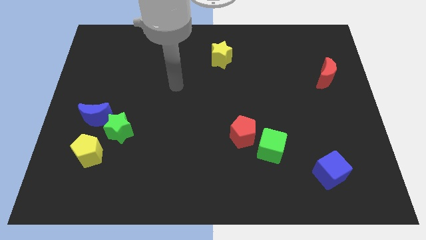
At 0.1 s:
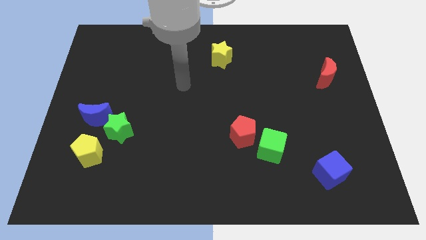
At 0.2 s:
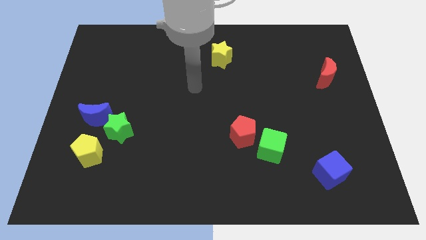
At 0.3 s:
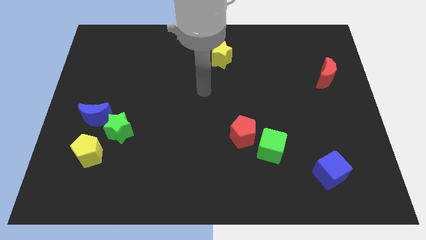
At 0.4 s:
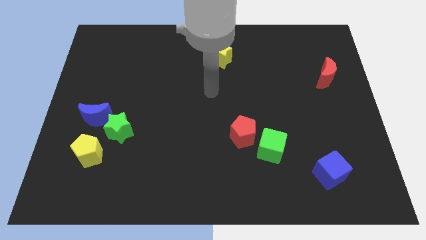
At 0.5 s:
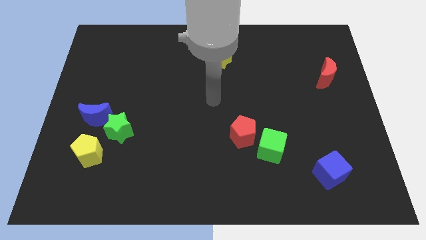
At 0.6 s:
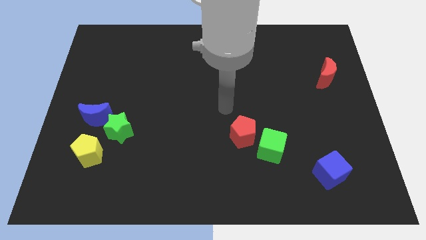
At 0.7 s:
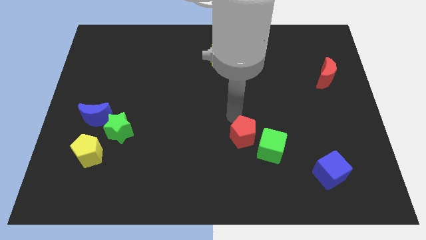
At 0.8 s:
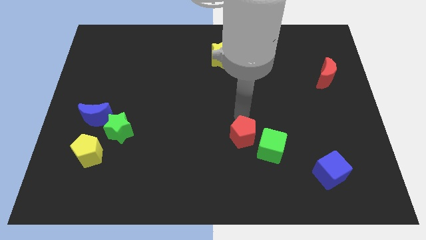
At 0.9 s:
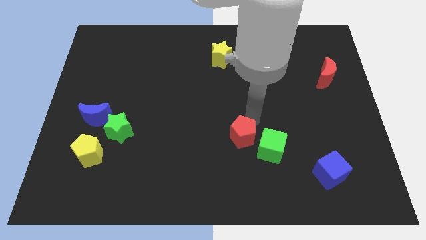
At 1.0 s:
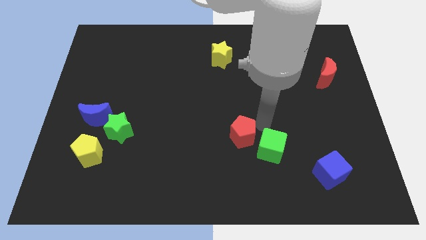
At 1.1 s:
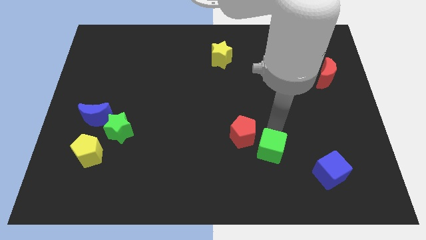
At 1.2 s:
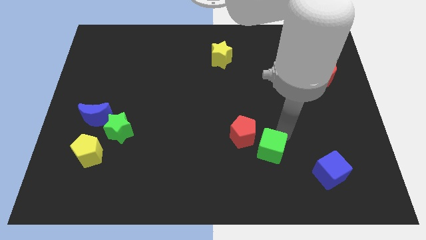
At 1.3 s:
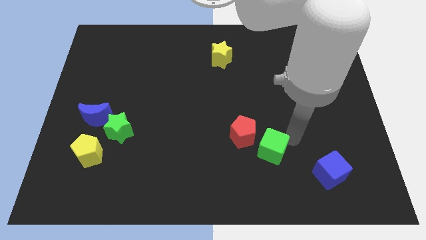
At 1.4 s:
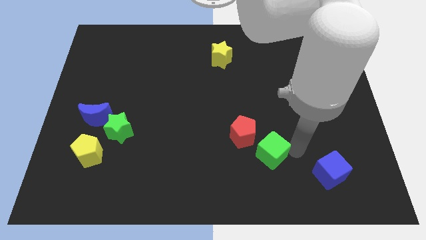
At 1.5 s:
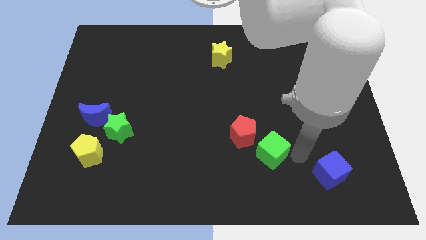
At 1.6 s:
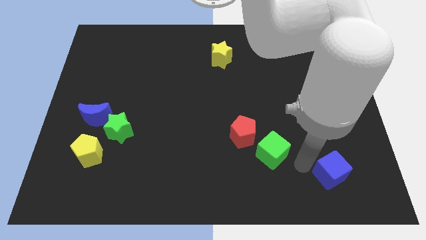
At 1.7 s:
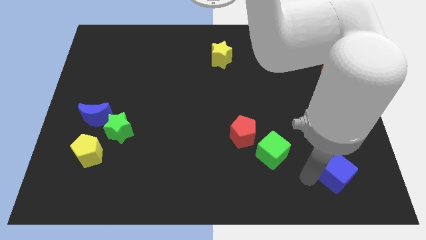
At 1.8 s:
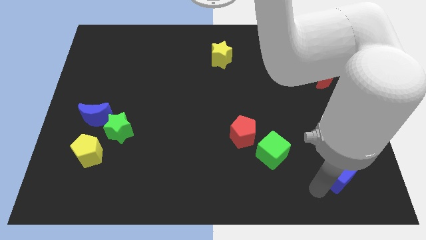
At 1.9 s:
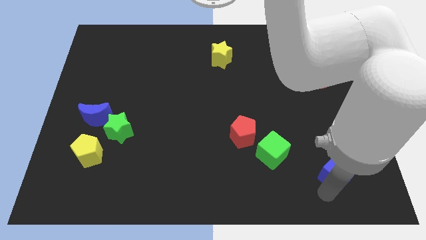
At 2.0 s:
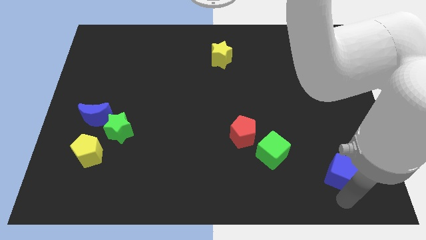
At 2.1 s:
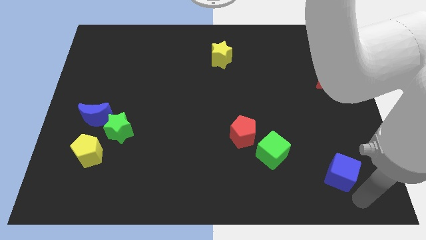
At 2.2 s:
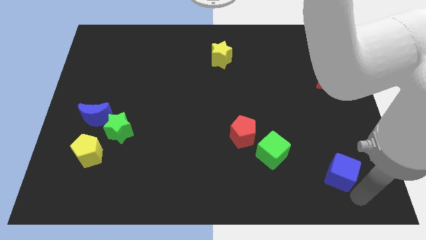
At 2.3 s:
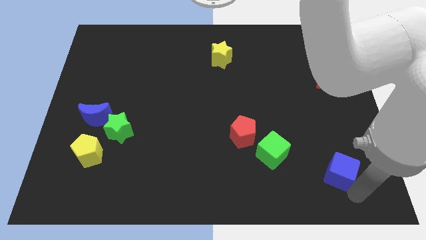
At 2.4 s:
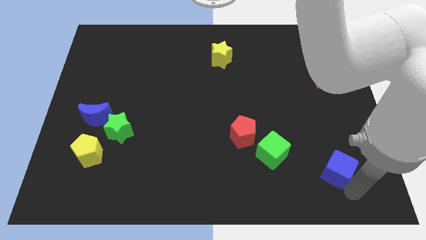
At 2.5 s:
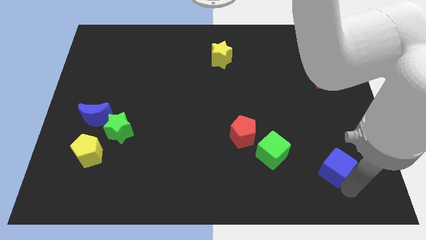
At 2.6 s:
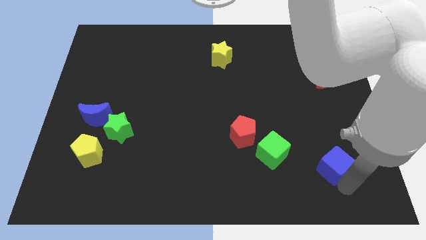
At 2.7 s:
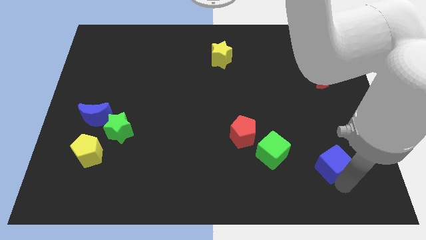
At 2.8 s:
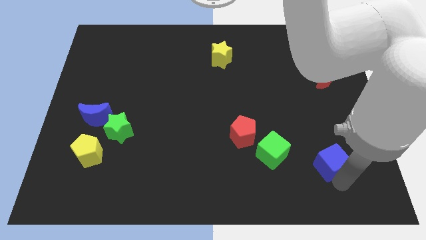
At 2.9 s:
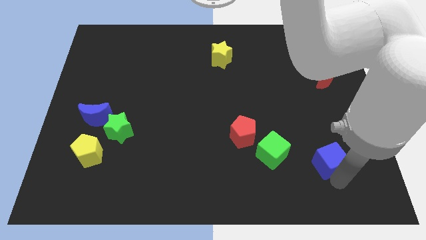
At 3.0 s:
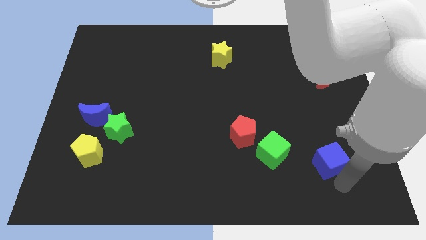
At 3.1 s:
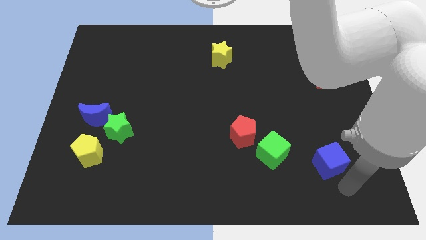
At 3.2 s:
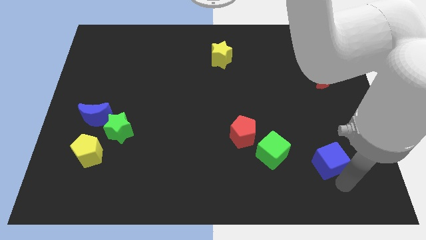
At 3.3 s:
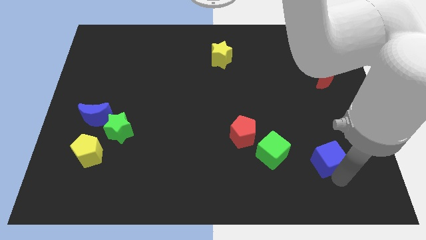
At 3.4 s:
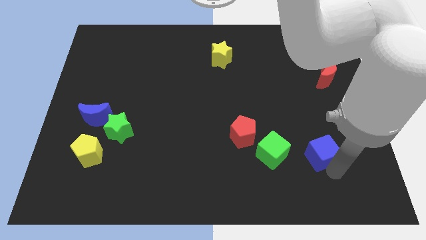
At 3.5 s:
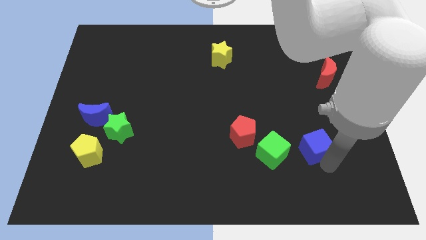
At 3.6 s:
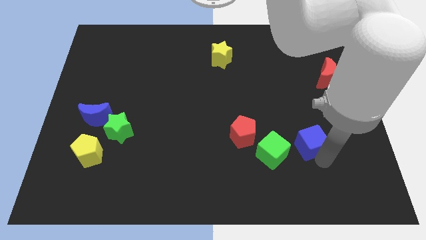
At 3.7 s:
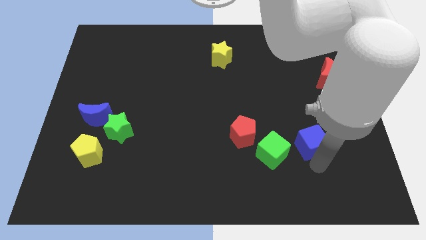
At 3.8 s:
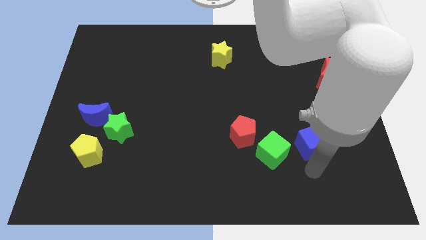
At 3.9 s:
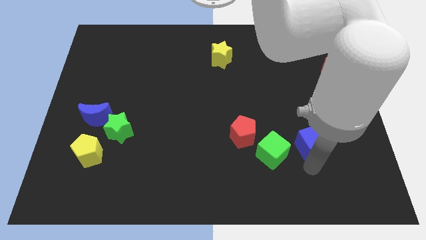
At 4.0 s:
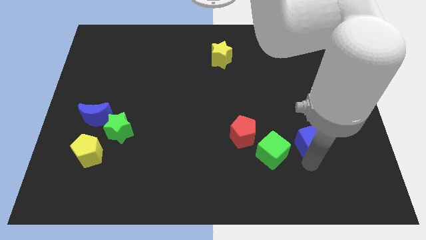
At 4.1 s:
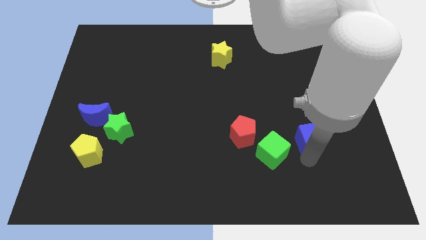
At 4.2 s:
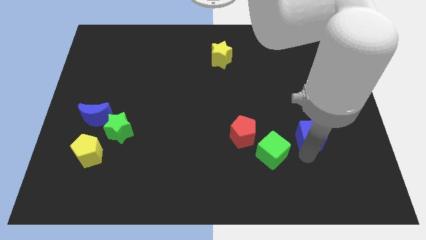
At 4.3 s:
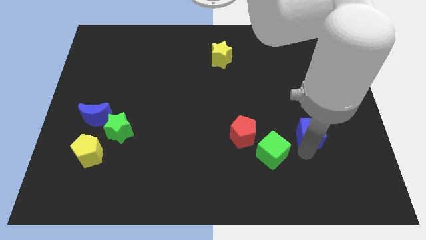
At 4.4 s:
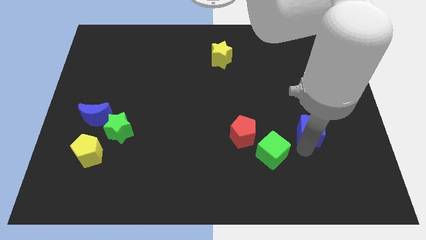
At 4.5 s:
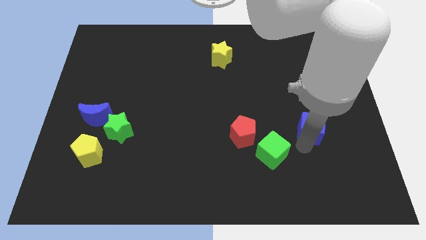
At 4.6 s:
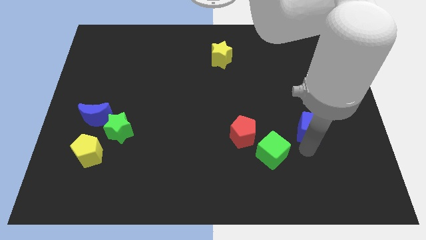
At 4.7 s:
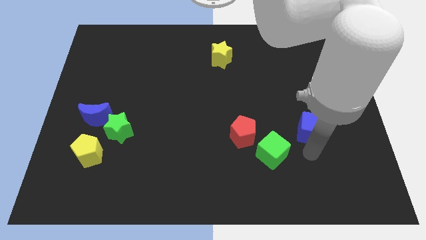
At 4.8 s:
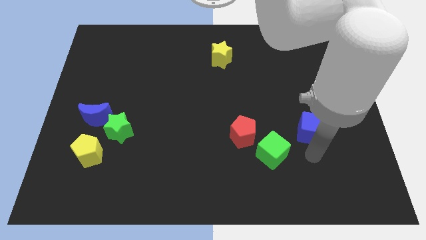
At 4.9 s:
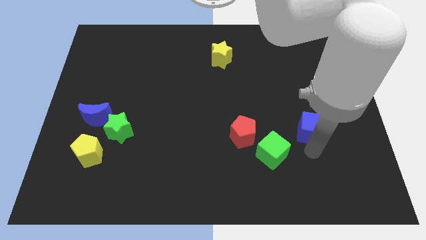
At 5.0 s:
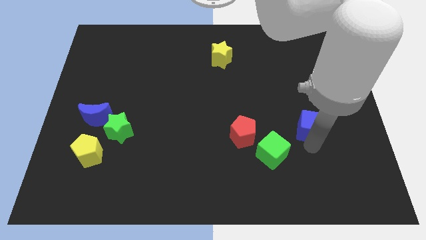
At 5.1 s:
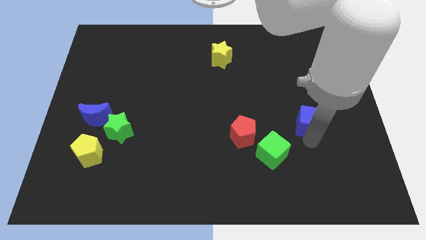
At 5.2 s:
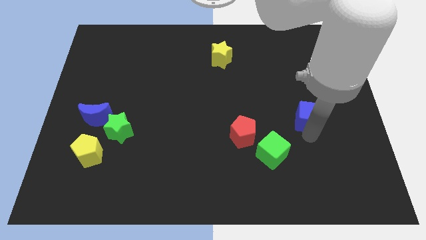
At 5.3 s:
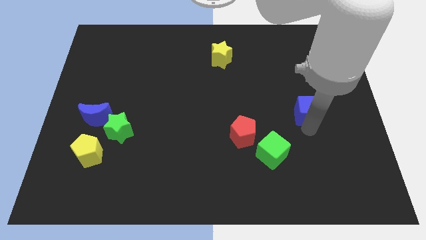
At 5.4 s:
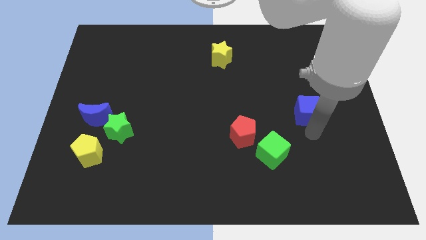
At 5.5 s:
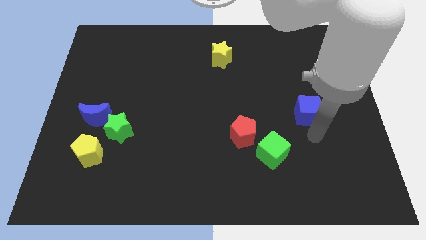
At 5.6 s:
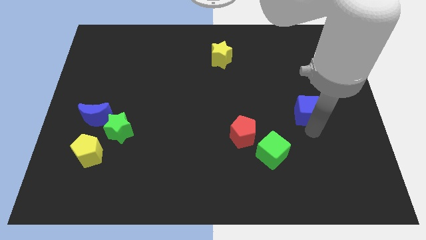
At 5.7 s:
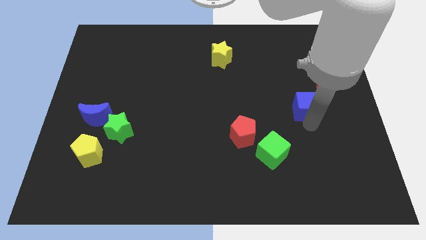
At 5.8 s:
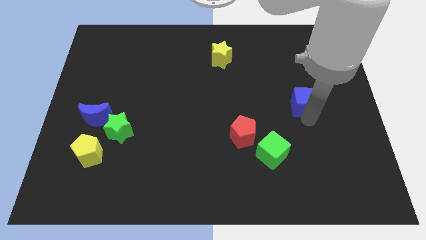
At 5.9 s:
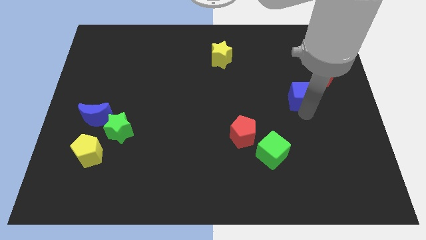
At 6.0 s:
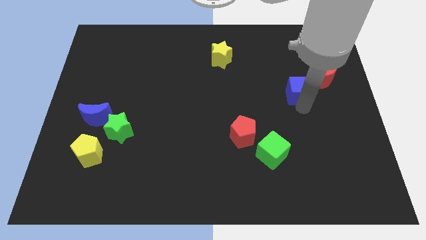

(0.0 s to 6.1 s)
move the blue cube up

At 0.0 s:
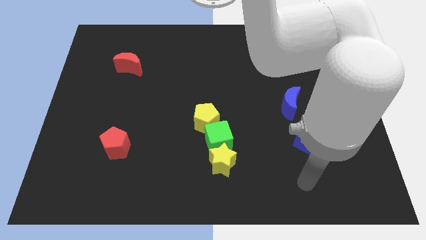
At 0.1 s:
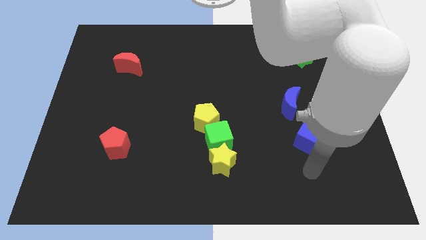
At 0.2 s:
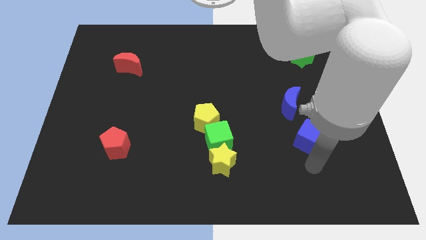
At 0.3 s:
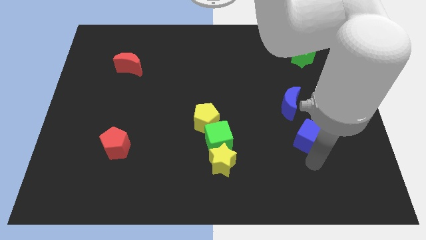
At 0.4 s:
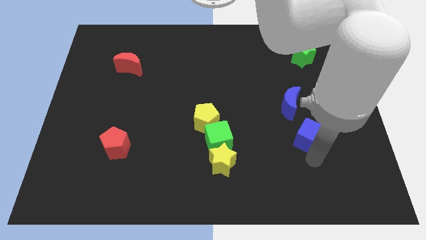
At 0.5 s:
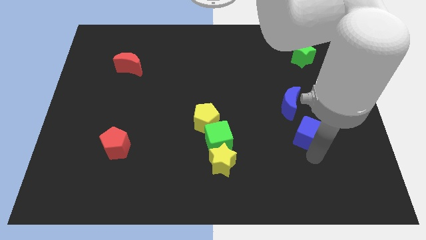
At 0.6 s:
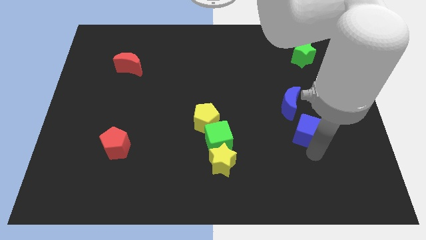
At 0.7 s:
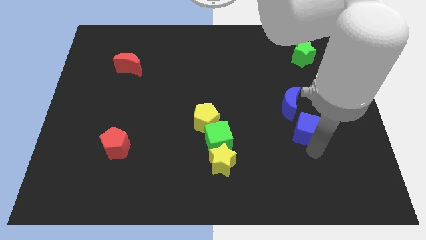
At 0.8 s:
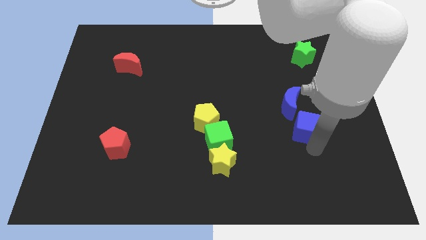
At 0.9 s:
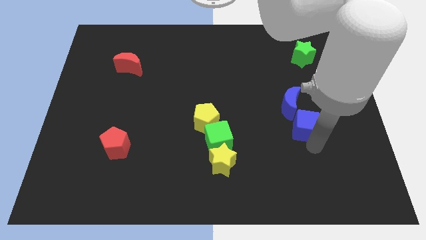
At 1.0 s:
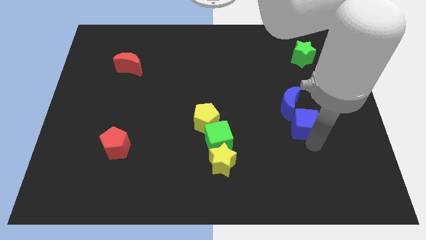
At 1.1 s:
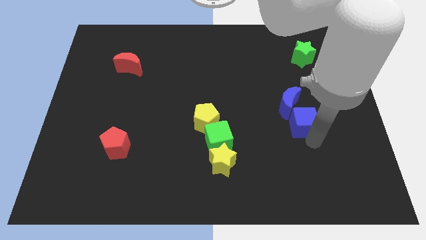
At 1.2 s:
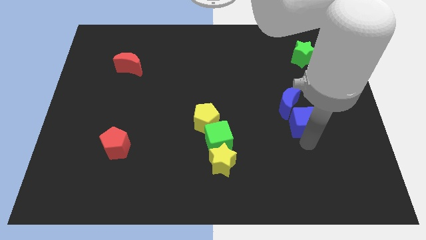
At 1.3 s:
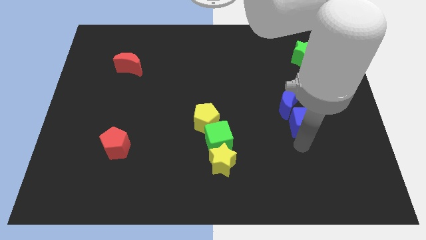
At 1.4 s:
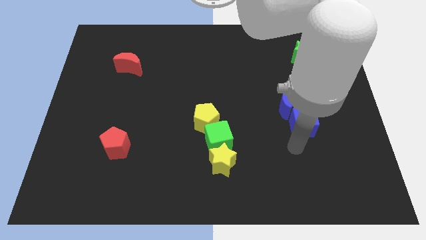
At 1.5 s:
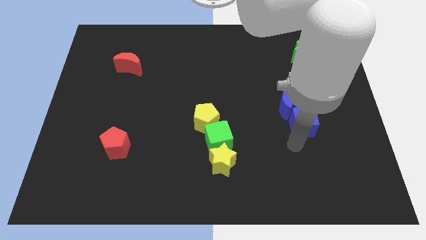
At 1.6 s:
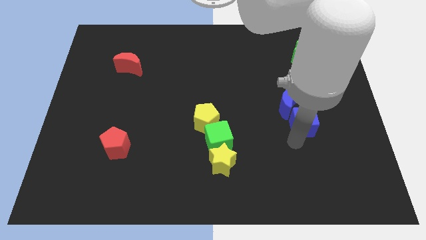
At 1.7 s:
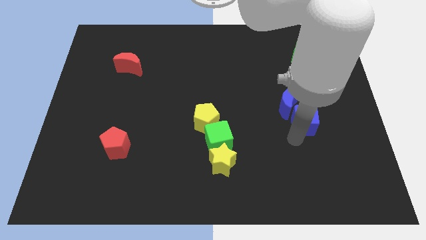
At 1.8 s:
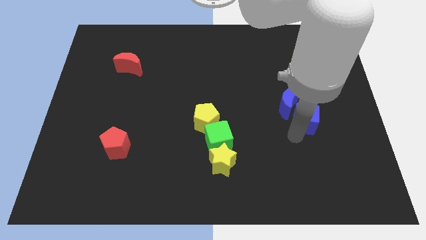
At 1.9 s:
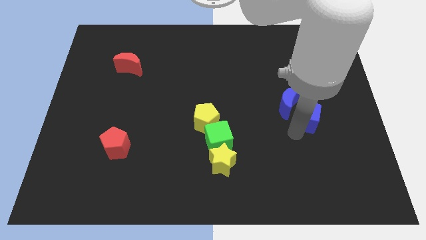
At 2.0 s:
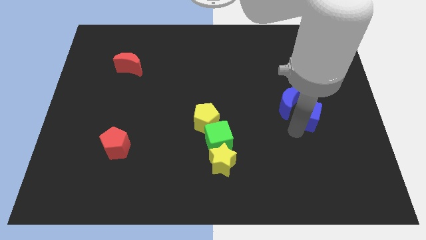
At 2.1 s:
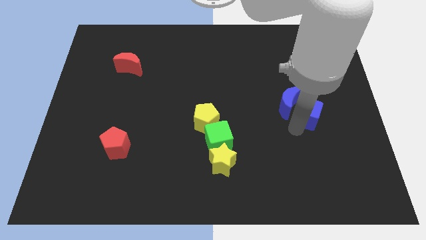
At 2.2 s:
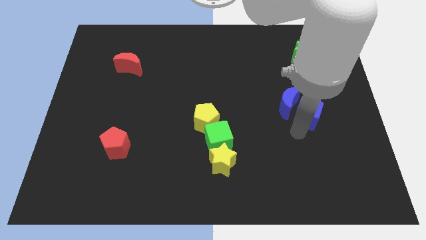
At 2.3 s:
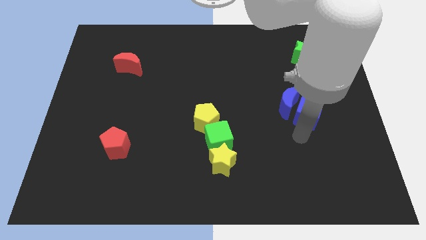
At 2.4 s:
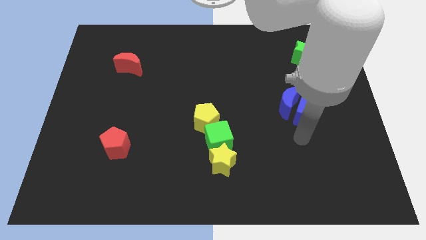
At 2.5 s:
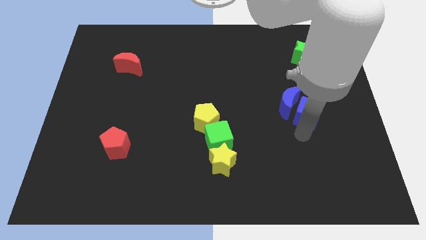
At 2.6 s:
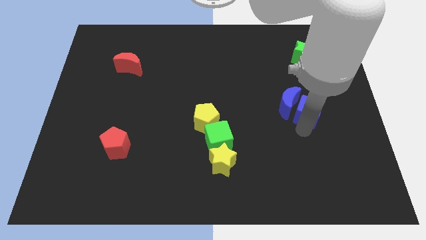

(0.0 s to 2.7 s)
slightly slide the blue cube up
